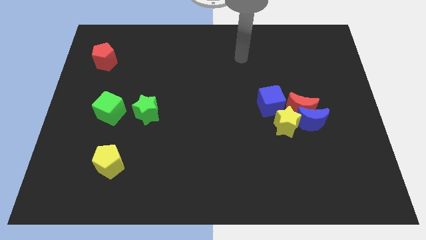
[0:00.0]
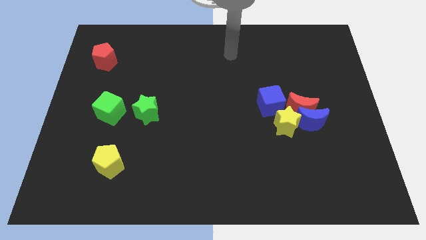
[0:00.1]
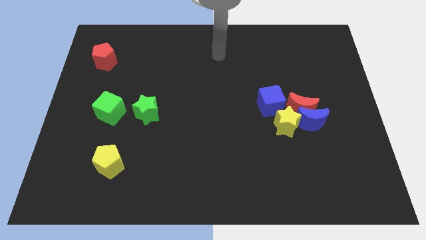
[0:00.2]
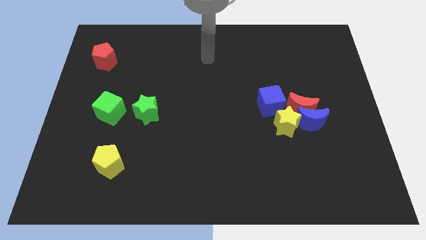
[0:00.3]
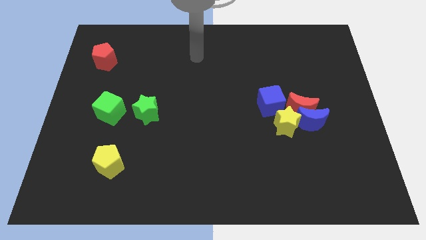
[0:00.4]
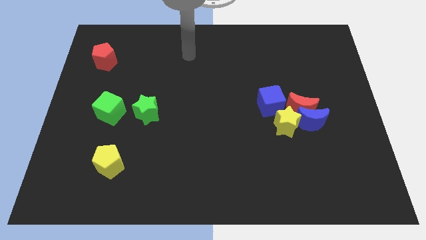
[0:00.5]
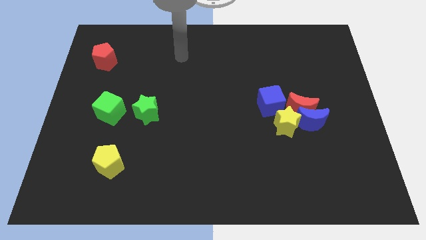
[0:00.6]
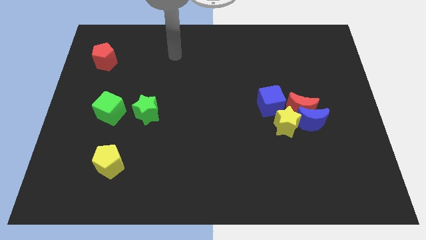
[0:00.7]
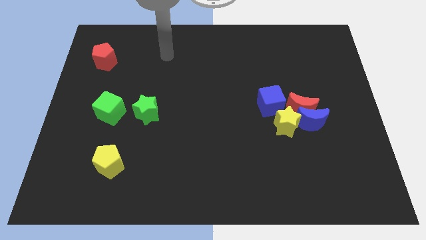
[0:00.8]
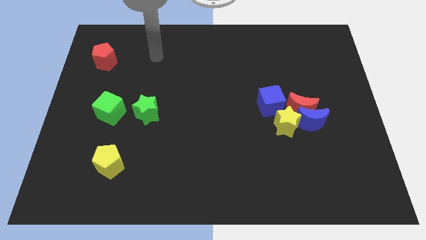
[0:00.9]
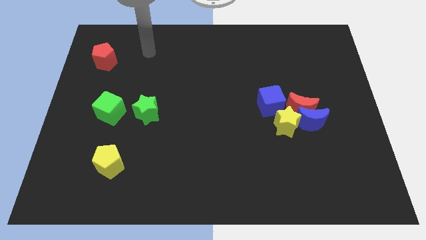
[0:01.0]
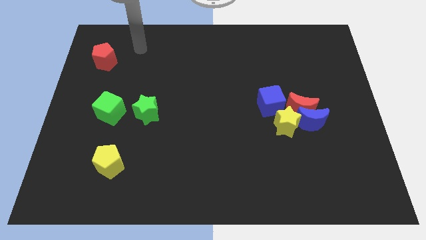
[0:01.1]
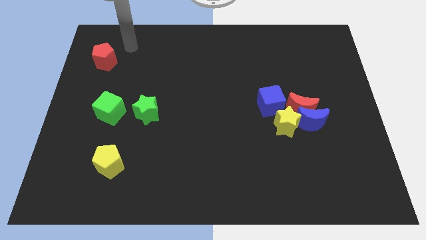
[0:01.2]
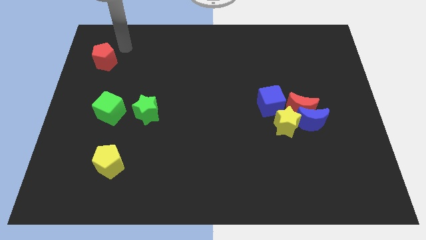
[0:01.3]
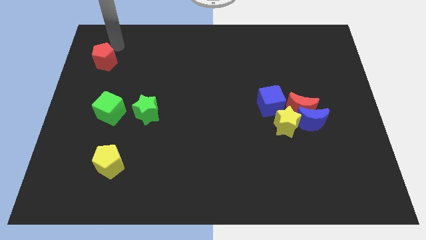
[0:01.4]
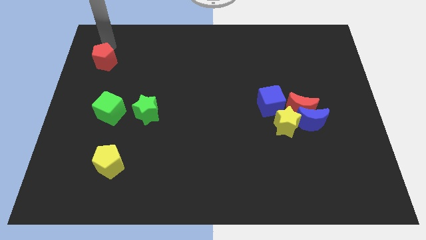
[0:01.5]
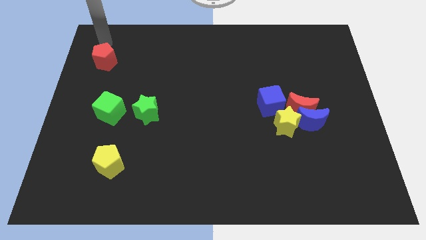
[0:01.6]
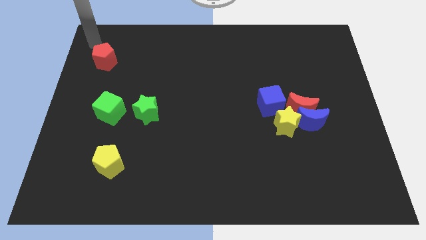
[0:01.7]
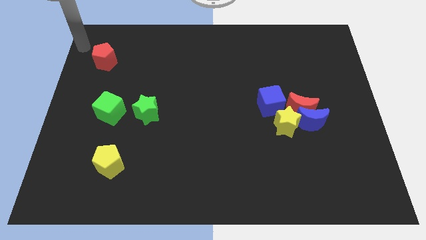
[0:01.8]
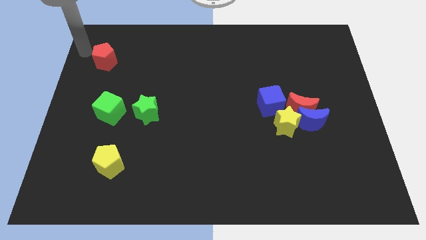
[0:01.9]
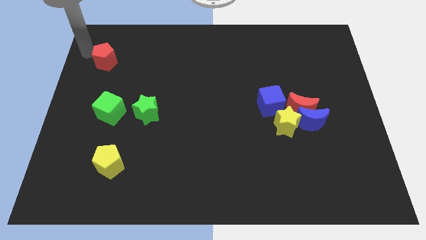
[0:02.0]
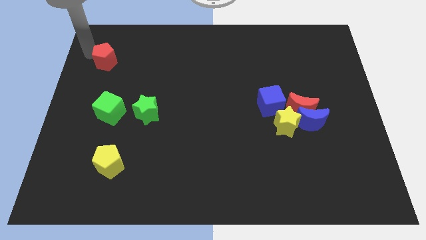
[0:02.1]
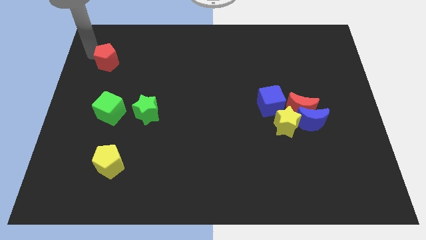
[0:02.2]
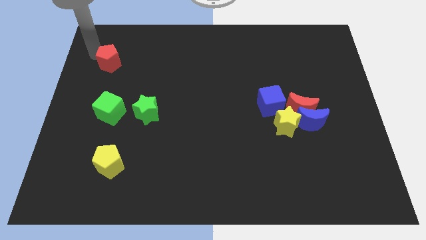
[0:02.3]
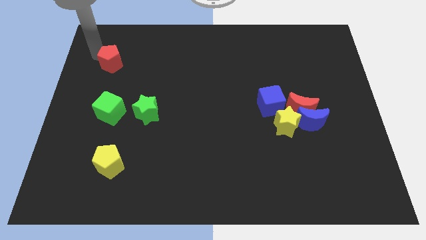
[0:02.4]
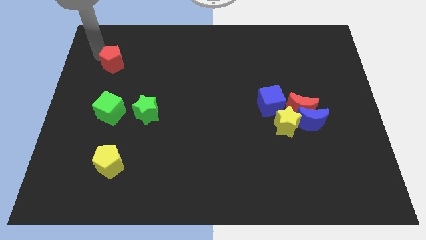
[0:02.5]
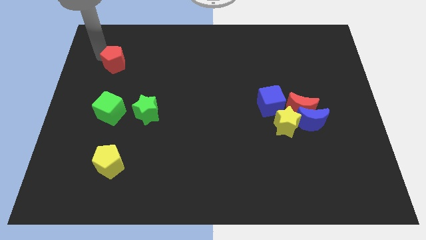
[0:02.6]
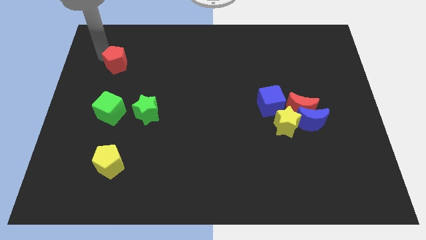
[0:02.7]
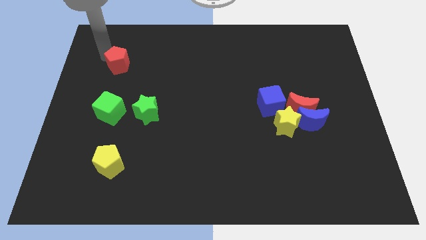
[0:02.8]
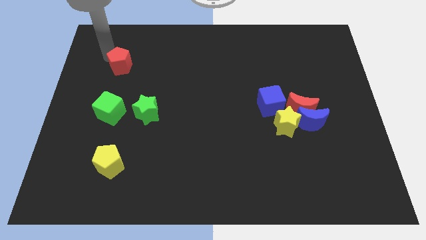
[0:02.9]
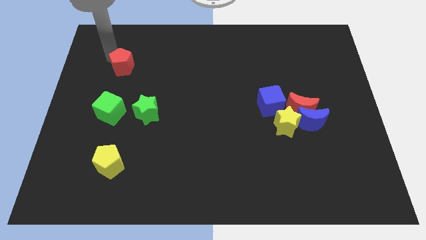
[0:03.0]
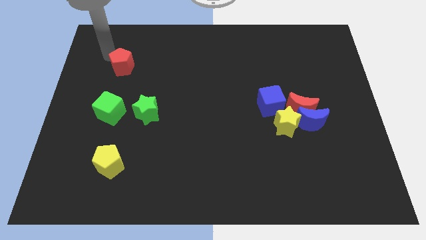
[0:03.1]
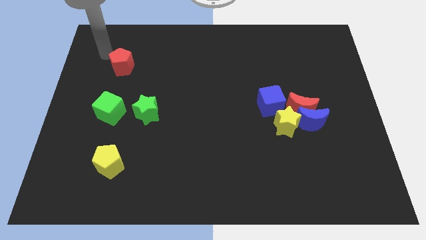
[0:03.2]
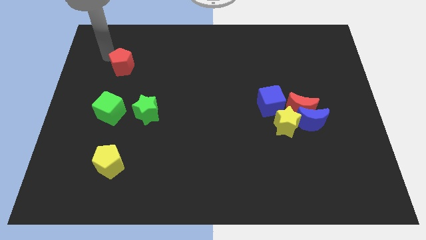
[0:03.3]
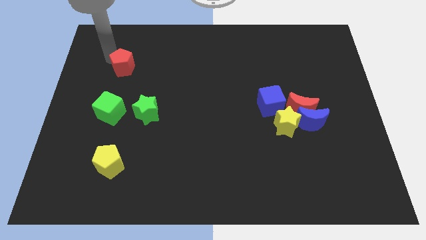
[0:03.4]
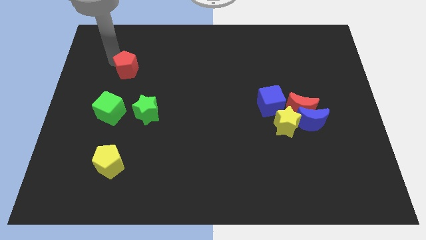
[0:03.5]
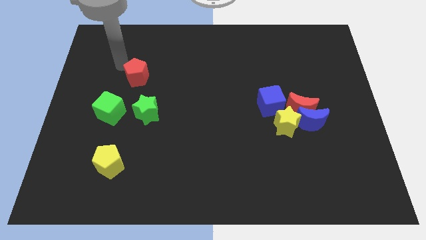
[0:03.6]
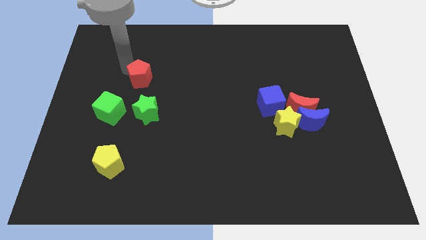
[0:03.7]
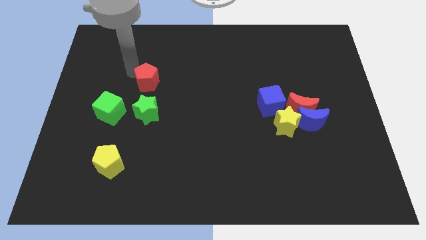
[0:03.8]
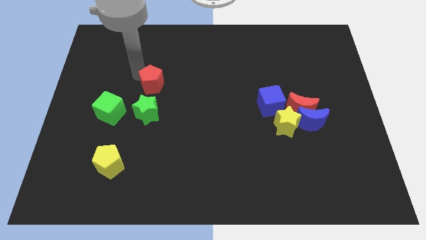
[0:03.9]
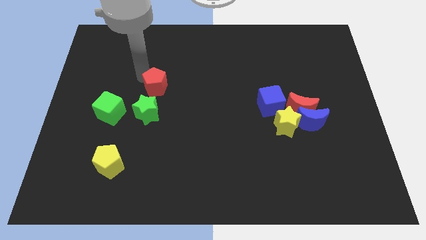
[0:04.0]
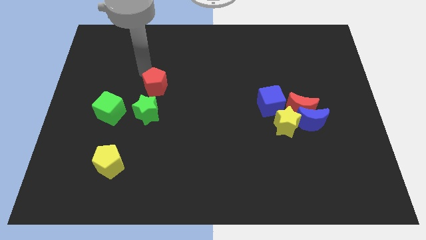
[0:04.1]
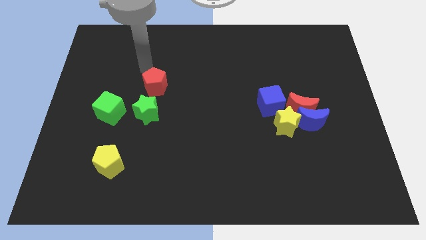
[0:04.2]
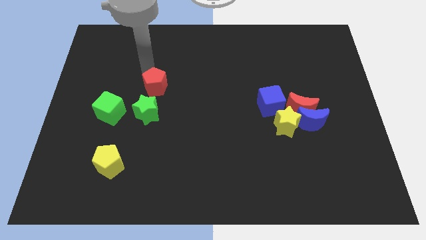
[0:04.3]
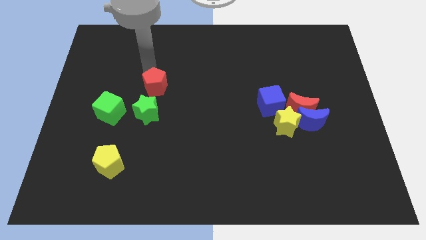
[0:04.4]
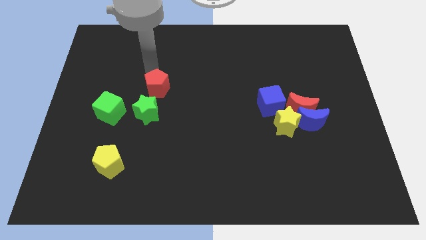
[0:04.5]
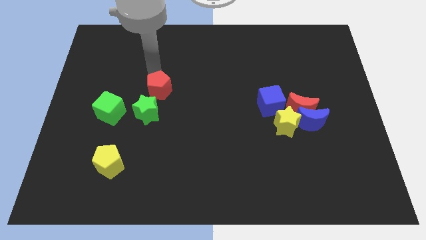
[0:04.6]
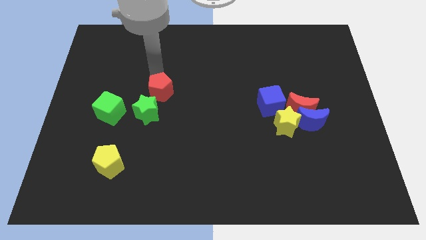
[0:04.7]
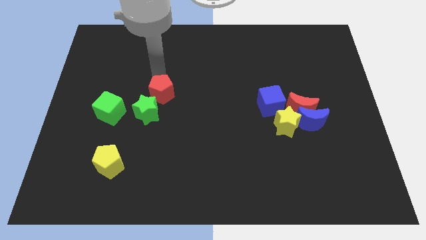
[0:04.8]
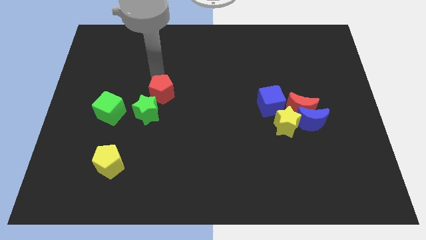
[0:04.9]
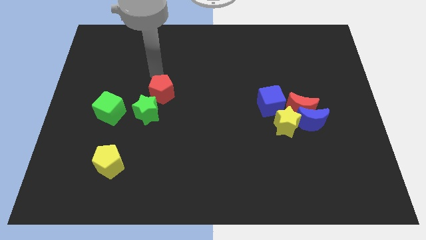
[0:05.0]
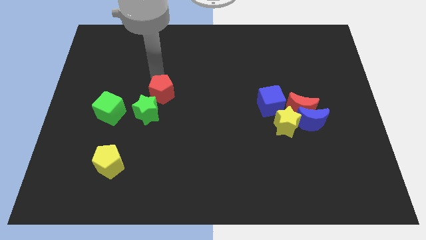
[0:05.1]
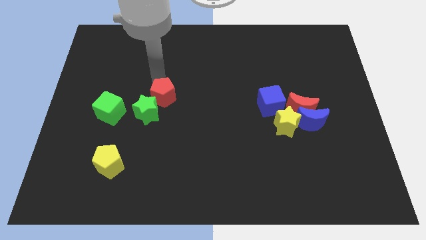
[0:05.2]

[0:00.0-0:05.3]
slide the red pentagon downwards and then right

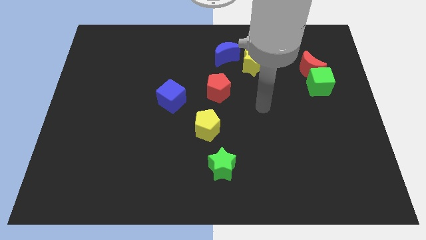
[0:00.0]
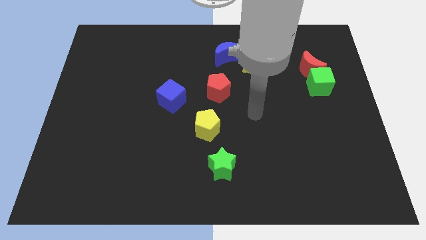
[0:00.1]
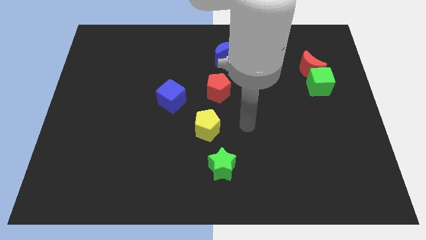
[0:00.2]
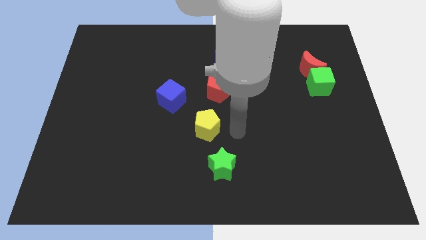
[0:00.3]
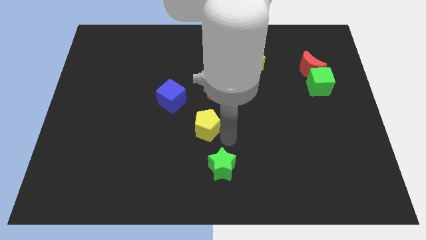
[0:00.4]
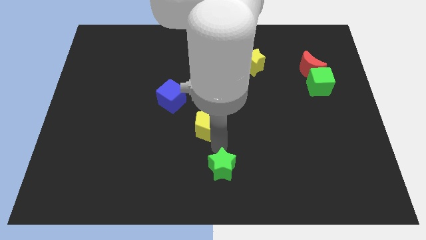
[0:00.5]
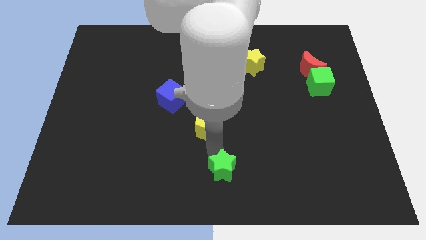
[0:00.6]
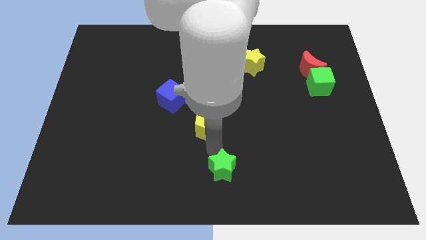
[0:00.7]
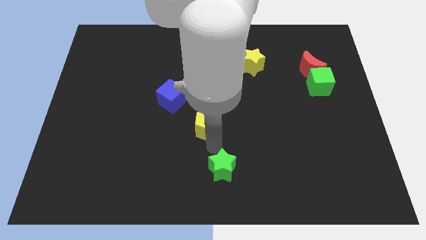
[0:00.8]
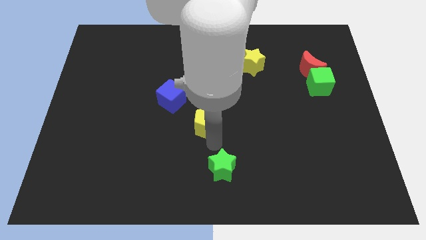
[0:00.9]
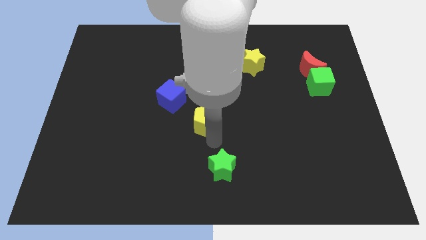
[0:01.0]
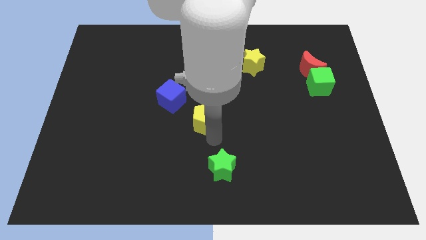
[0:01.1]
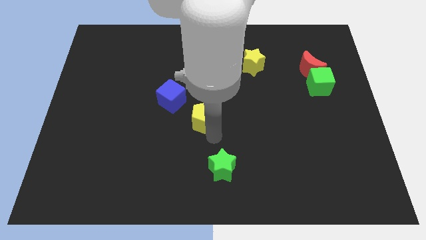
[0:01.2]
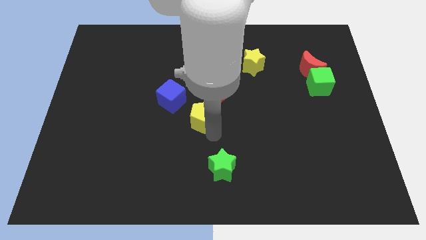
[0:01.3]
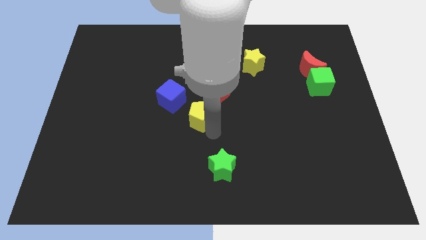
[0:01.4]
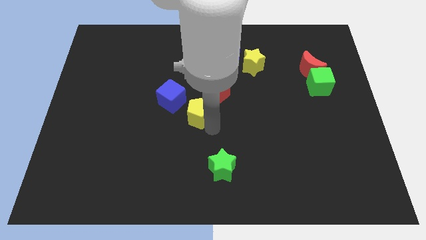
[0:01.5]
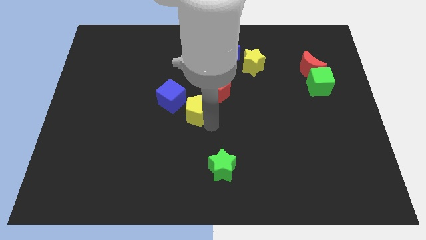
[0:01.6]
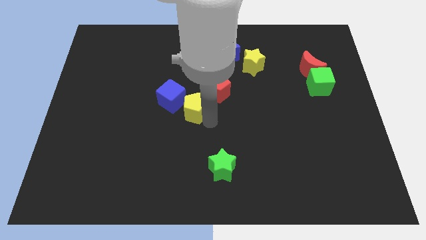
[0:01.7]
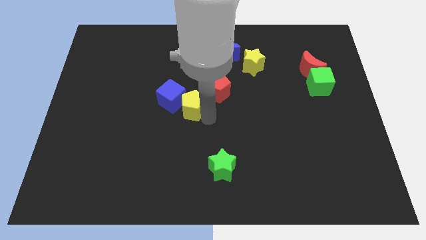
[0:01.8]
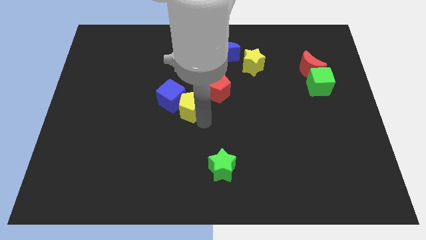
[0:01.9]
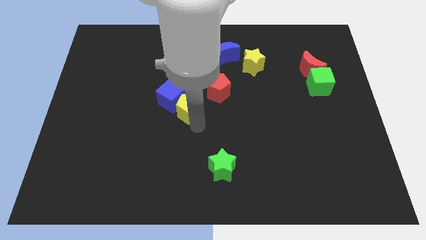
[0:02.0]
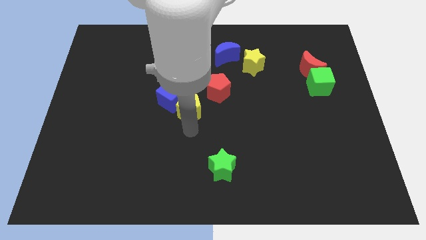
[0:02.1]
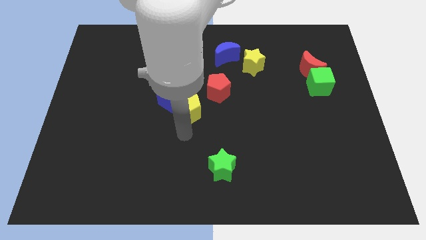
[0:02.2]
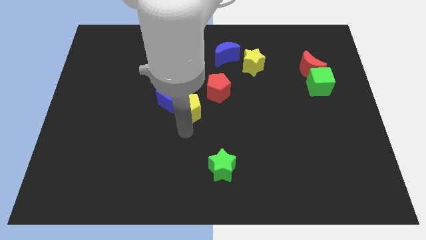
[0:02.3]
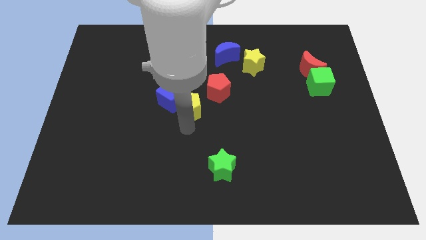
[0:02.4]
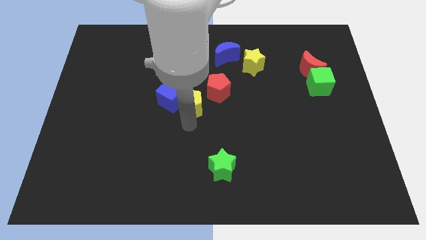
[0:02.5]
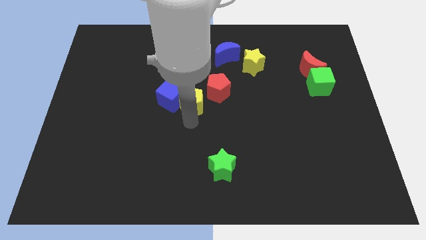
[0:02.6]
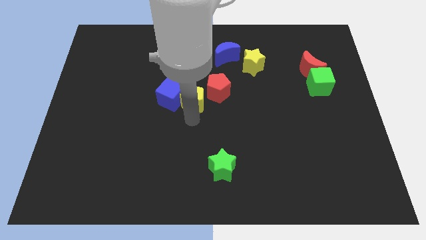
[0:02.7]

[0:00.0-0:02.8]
move the yellow pentagon up slightly

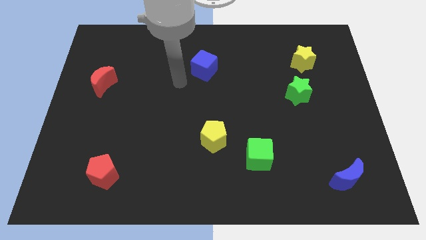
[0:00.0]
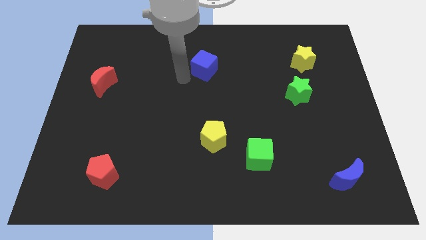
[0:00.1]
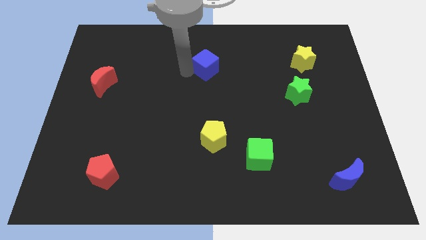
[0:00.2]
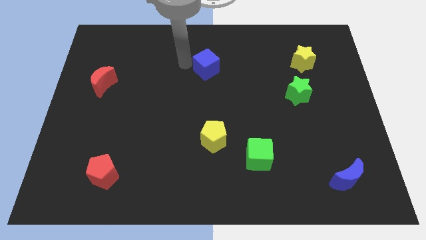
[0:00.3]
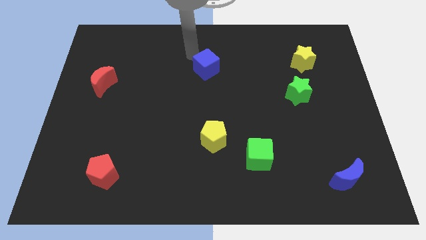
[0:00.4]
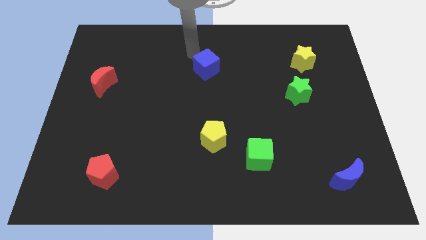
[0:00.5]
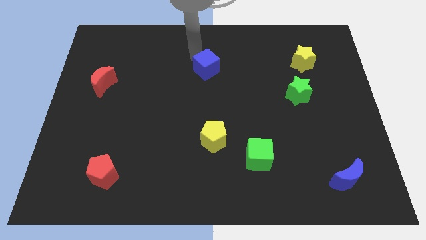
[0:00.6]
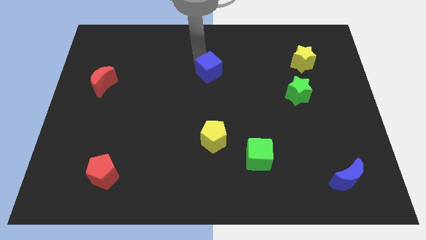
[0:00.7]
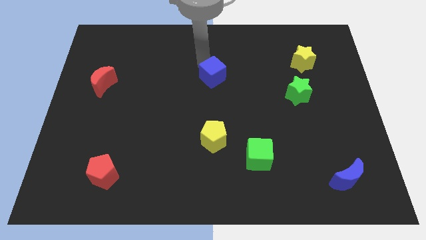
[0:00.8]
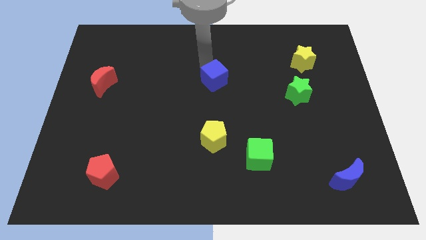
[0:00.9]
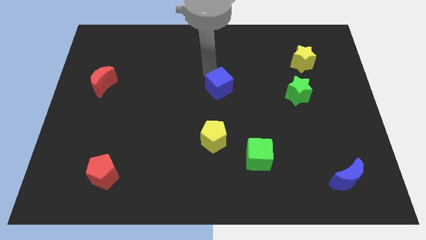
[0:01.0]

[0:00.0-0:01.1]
slightly push the blue cube downwards and to the right diagonally
